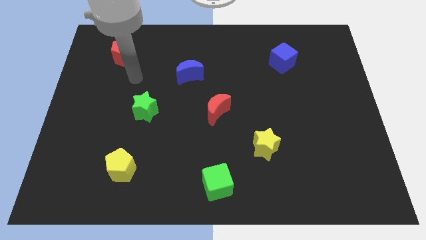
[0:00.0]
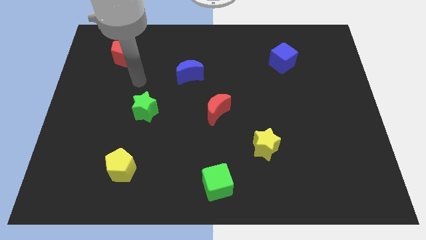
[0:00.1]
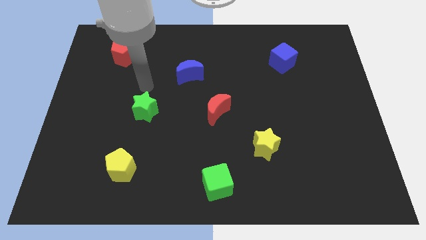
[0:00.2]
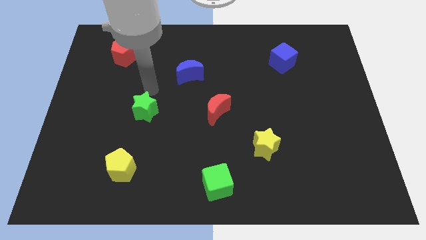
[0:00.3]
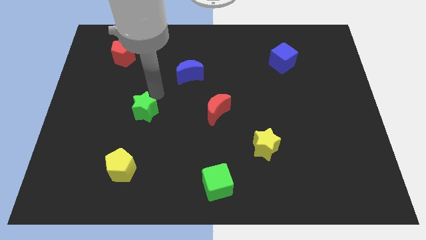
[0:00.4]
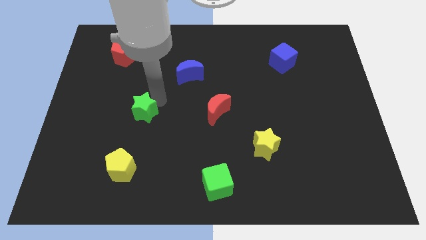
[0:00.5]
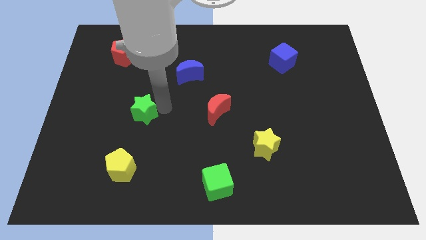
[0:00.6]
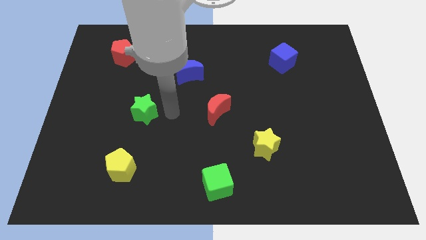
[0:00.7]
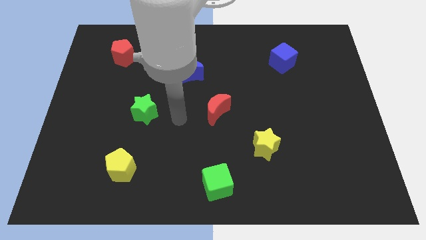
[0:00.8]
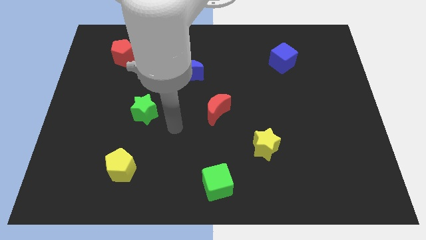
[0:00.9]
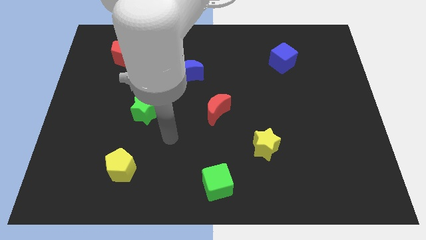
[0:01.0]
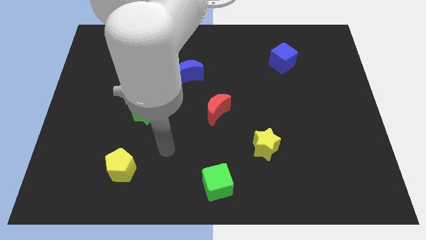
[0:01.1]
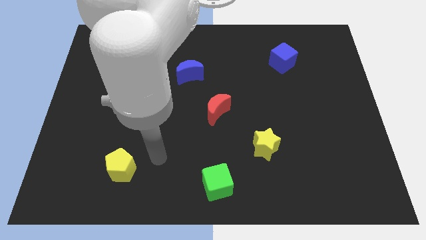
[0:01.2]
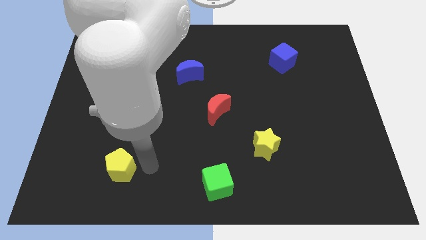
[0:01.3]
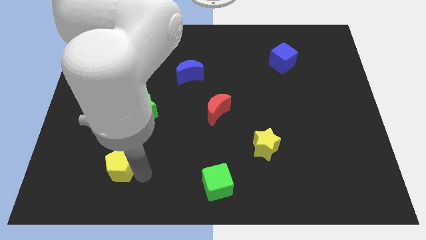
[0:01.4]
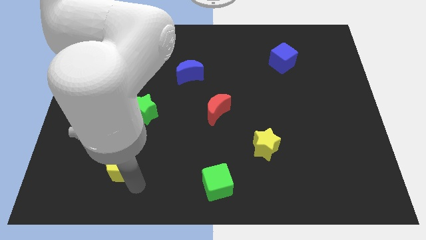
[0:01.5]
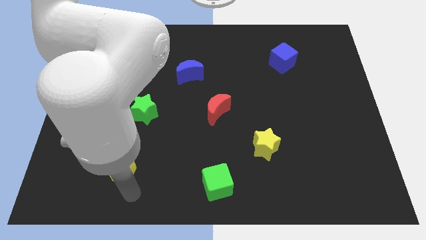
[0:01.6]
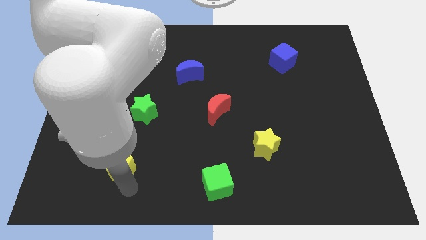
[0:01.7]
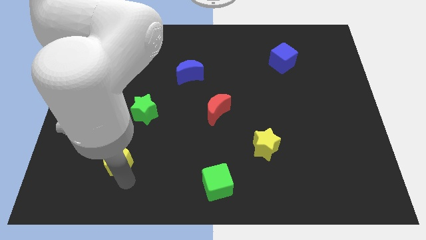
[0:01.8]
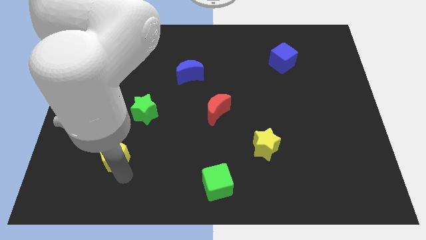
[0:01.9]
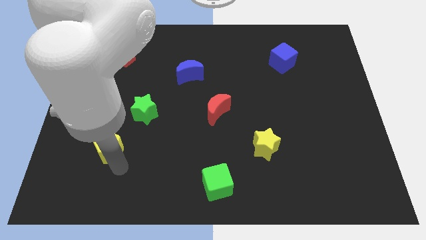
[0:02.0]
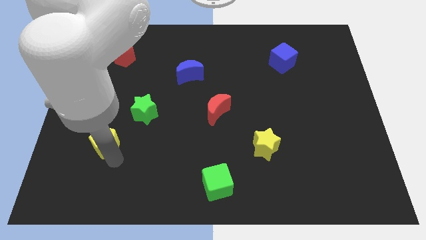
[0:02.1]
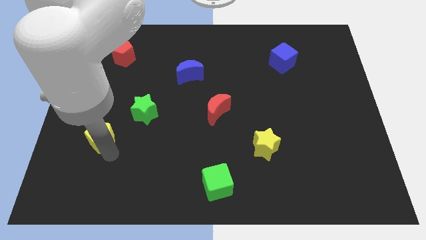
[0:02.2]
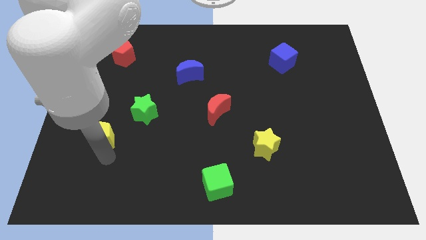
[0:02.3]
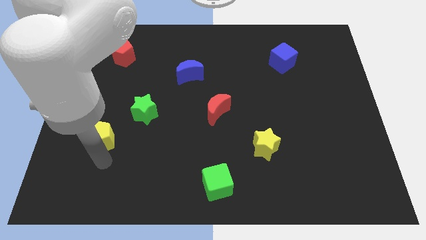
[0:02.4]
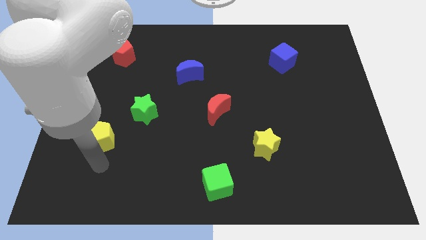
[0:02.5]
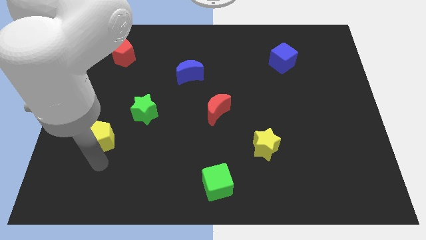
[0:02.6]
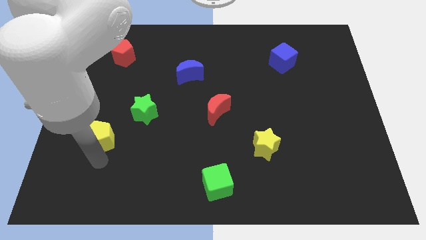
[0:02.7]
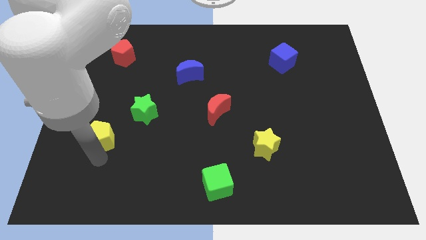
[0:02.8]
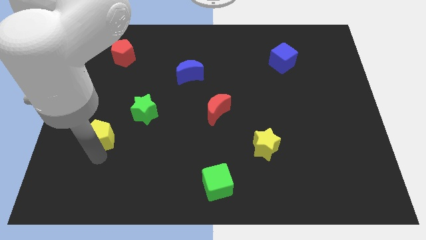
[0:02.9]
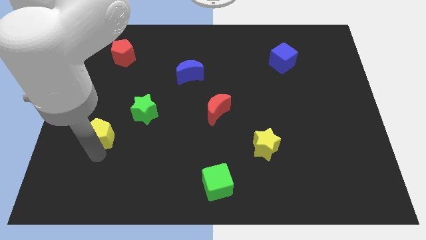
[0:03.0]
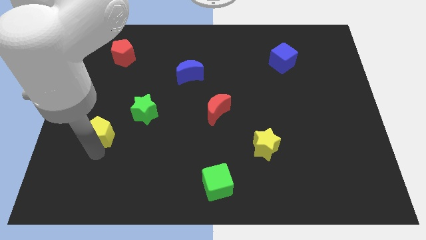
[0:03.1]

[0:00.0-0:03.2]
slightly push the yellow pentagon up

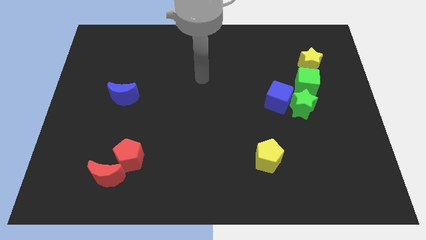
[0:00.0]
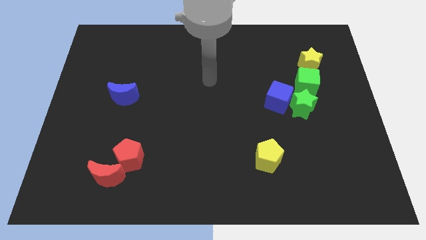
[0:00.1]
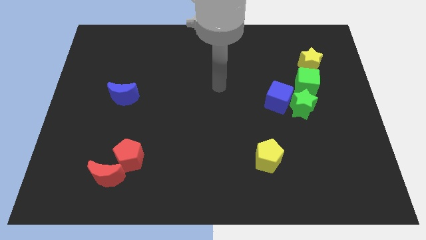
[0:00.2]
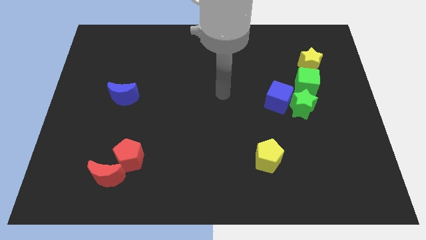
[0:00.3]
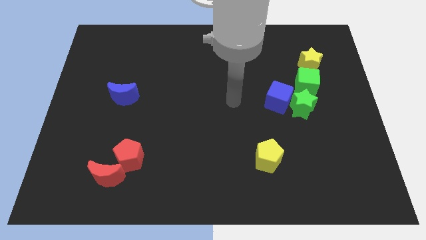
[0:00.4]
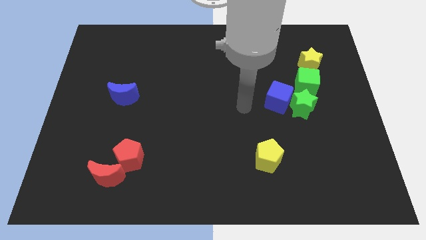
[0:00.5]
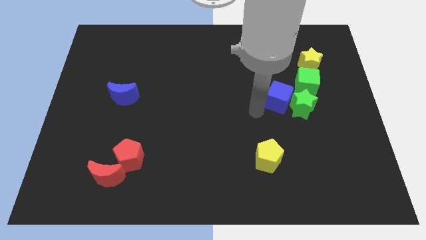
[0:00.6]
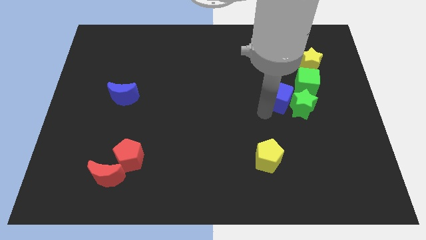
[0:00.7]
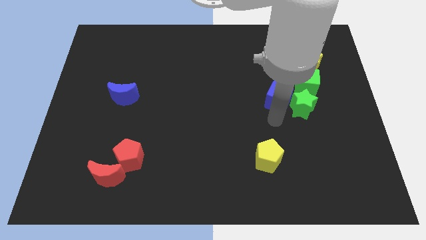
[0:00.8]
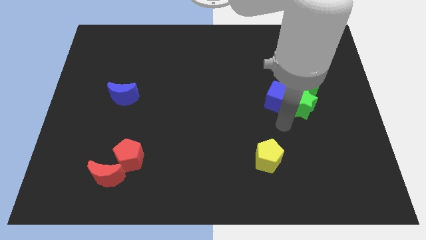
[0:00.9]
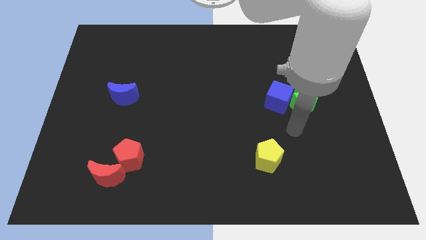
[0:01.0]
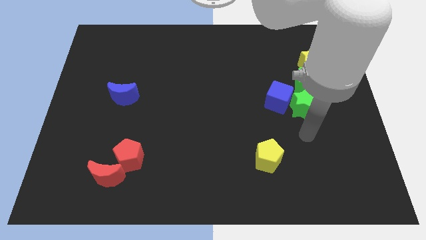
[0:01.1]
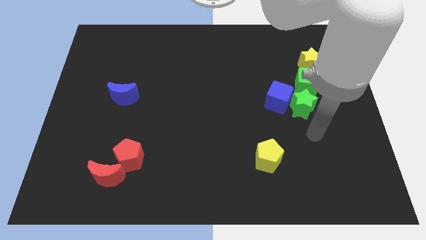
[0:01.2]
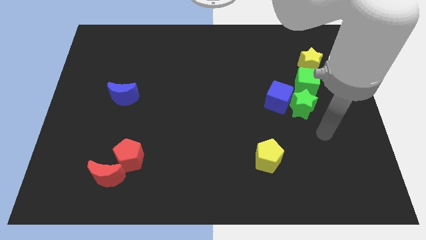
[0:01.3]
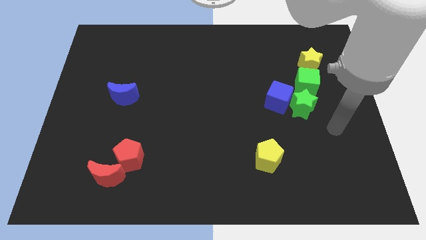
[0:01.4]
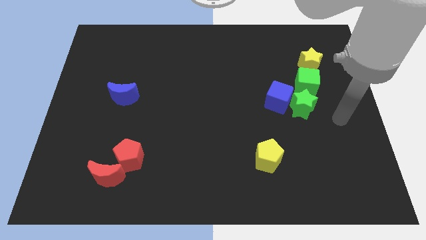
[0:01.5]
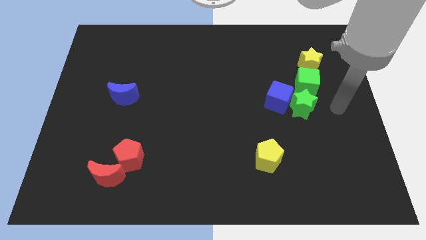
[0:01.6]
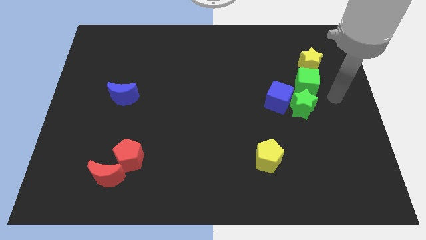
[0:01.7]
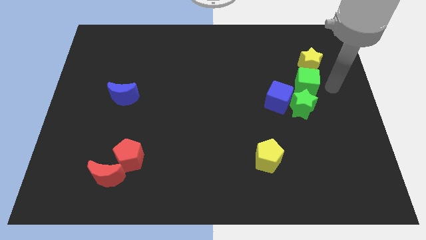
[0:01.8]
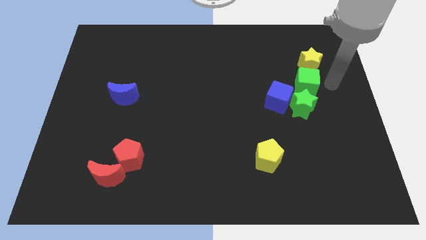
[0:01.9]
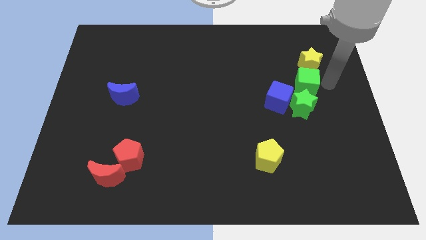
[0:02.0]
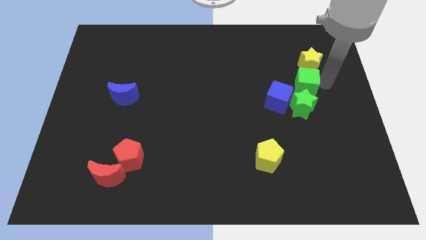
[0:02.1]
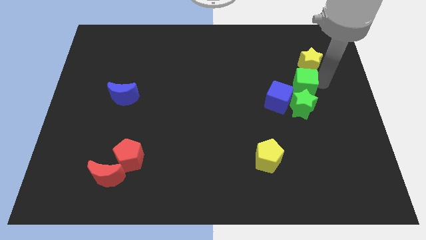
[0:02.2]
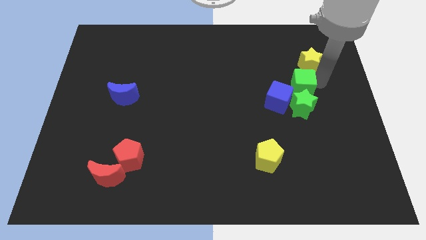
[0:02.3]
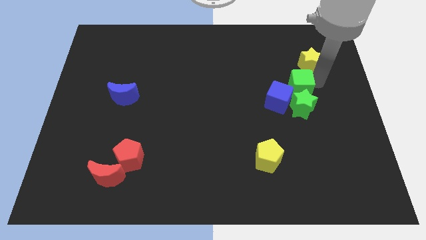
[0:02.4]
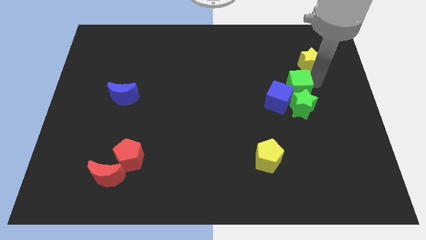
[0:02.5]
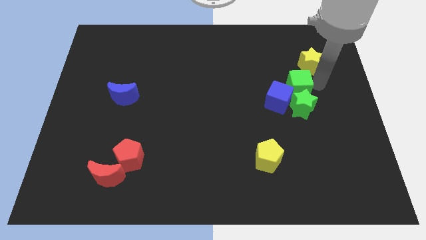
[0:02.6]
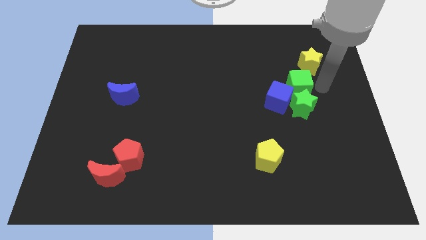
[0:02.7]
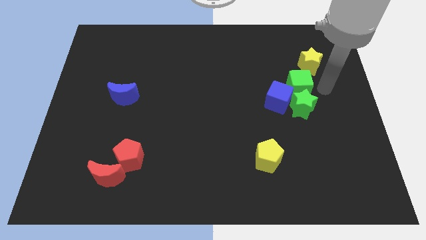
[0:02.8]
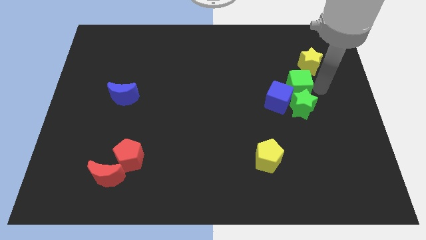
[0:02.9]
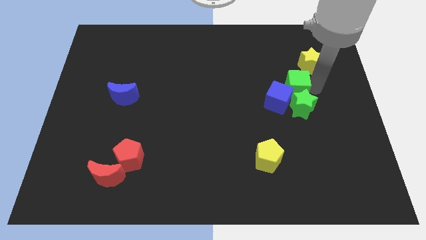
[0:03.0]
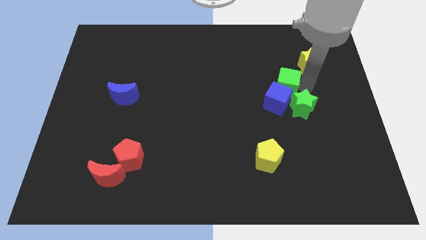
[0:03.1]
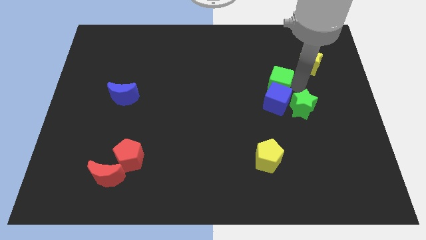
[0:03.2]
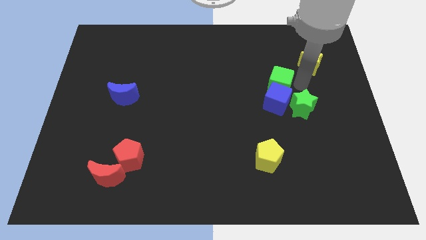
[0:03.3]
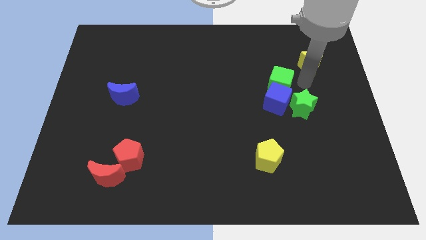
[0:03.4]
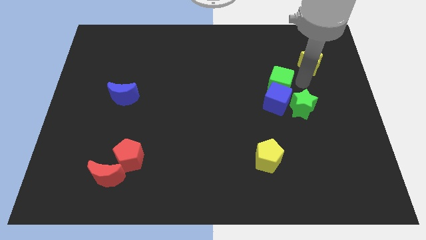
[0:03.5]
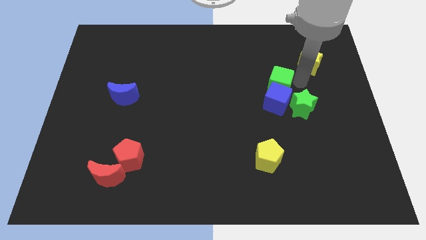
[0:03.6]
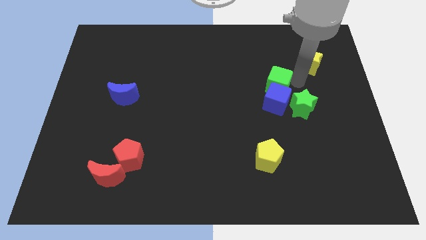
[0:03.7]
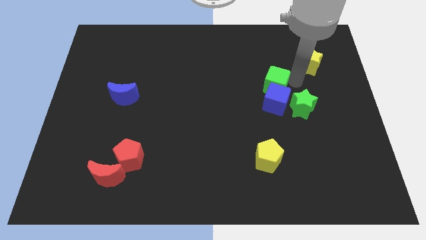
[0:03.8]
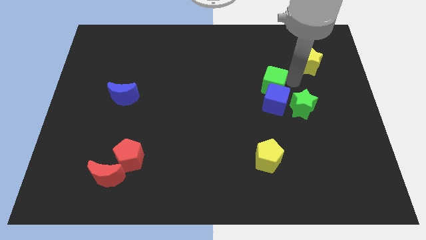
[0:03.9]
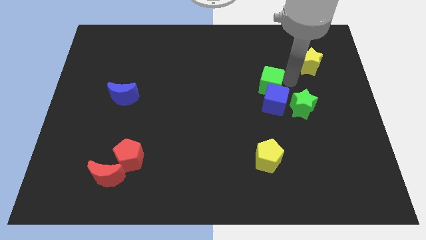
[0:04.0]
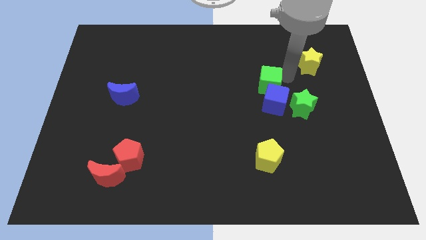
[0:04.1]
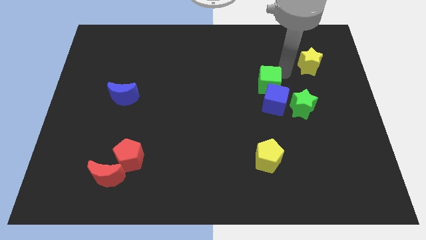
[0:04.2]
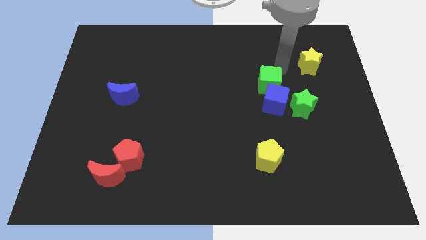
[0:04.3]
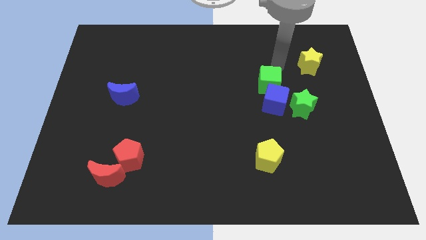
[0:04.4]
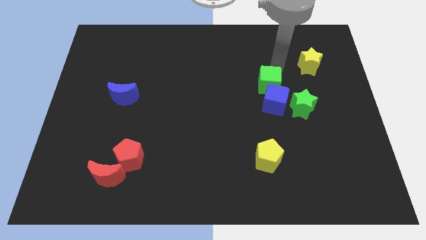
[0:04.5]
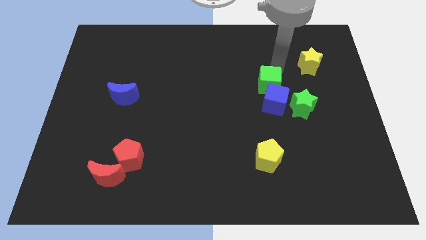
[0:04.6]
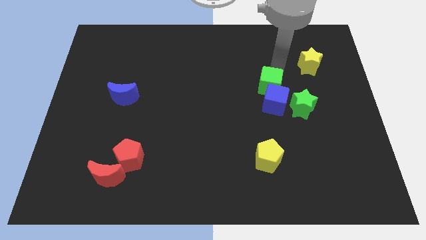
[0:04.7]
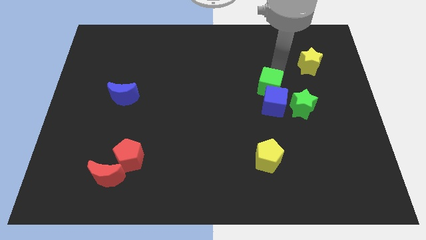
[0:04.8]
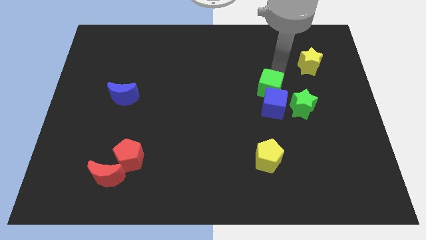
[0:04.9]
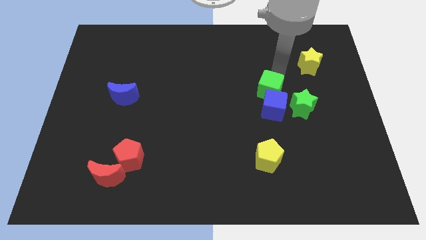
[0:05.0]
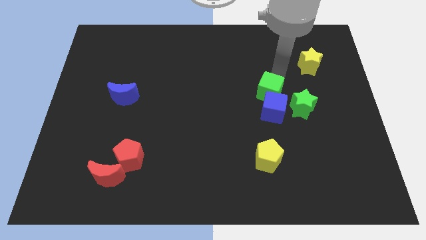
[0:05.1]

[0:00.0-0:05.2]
slightly move the green cube down and to the left
